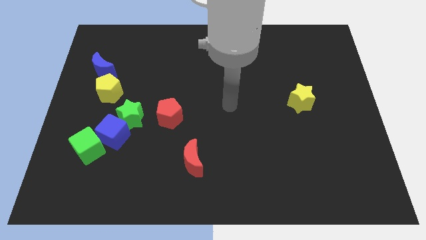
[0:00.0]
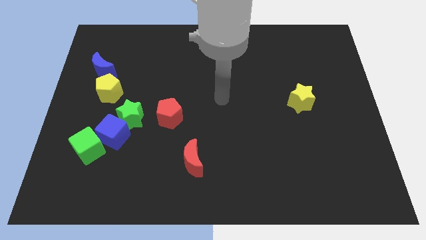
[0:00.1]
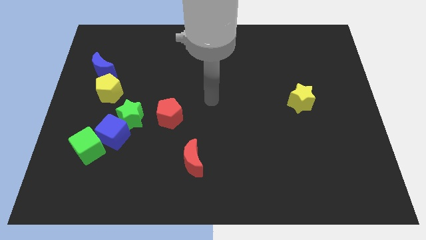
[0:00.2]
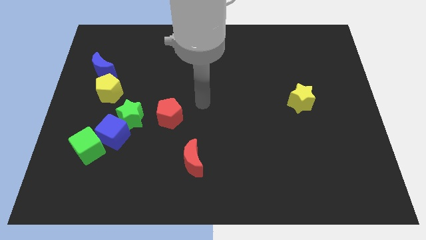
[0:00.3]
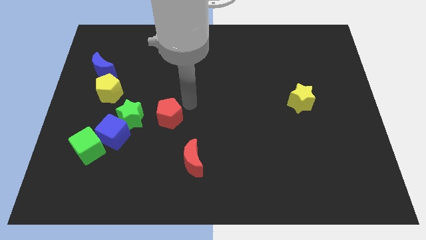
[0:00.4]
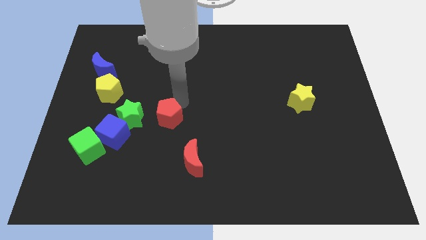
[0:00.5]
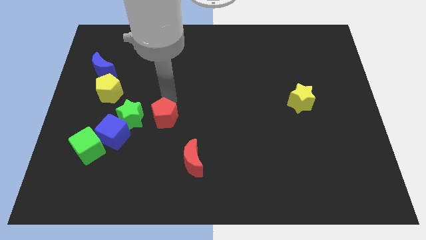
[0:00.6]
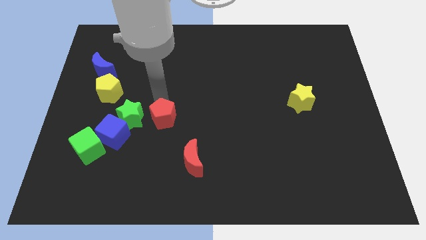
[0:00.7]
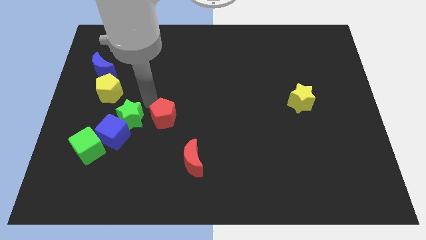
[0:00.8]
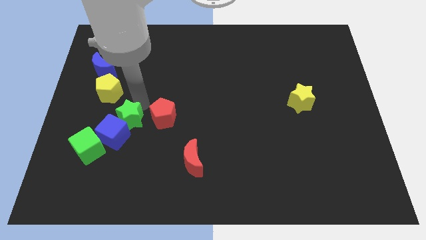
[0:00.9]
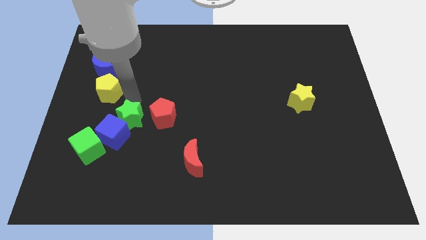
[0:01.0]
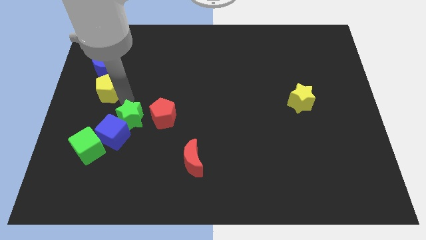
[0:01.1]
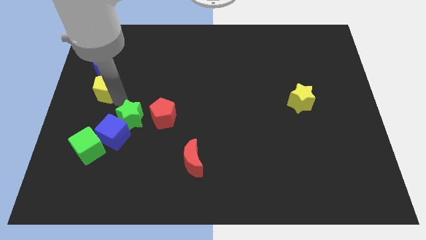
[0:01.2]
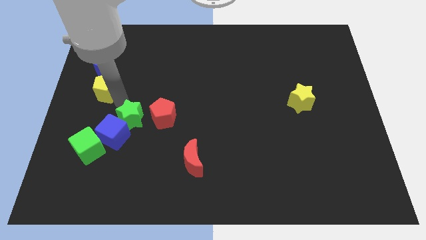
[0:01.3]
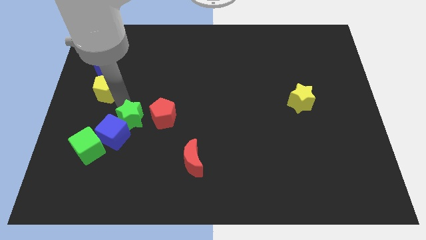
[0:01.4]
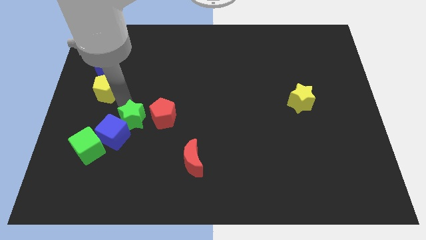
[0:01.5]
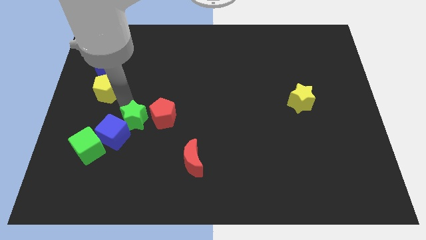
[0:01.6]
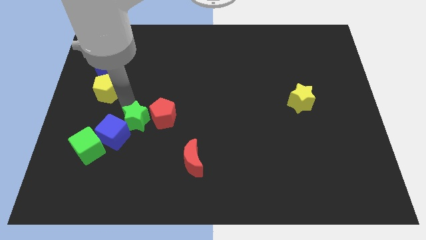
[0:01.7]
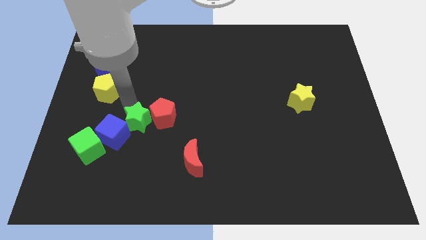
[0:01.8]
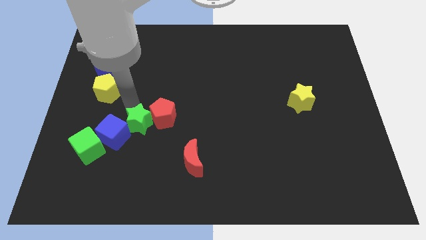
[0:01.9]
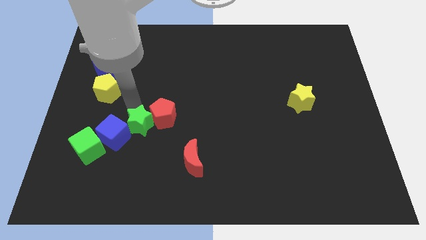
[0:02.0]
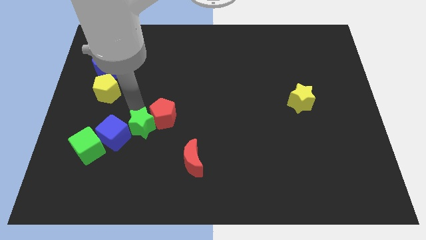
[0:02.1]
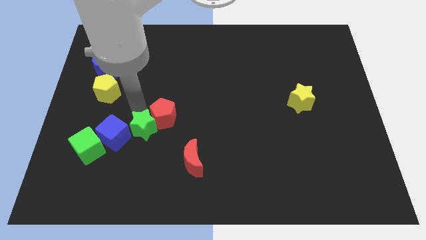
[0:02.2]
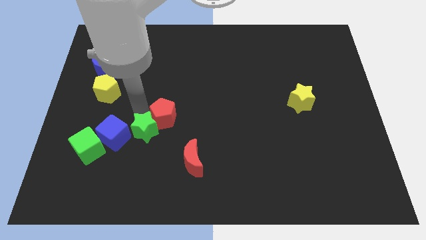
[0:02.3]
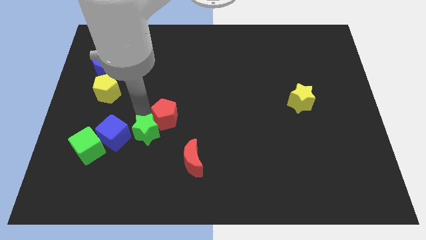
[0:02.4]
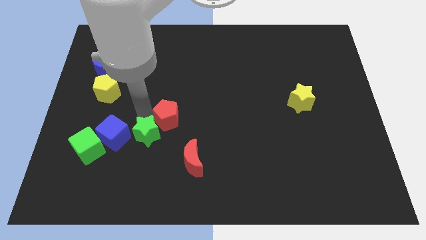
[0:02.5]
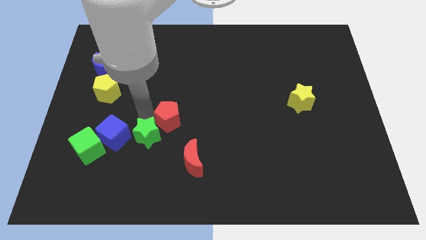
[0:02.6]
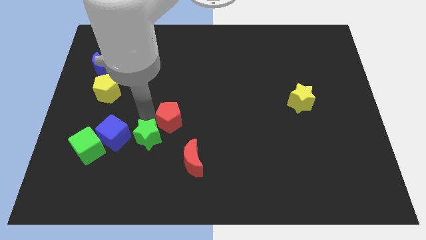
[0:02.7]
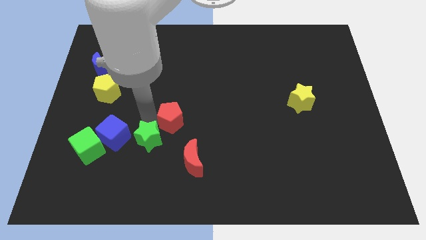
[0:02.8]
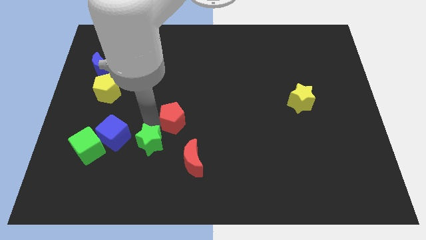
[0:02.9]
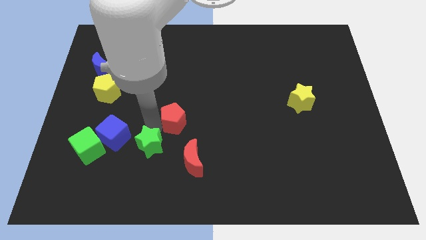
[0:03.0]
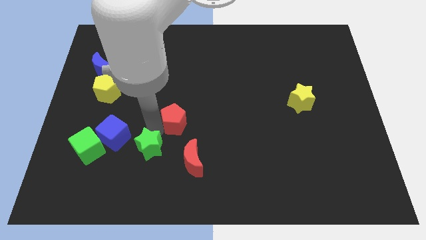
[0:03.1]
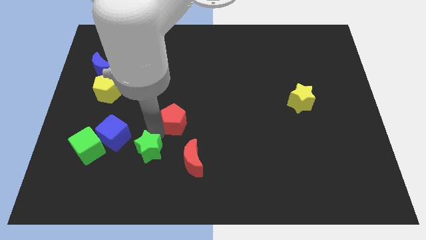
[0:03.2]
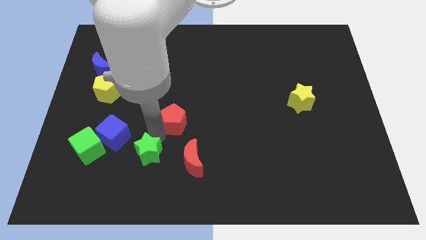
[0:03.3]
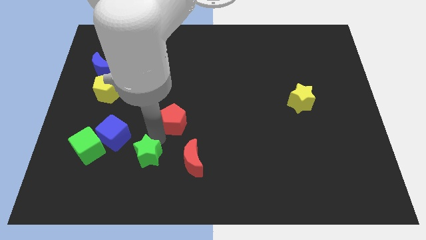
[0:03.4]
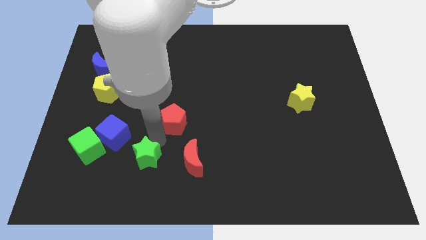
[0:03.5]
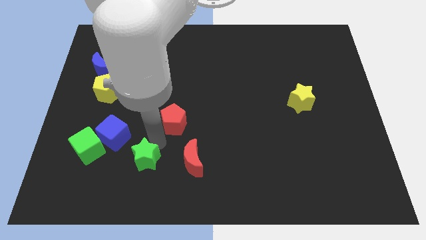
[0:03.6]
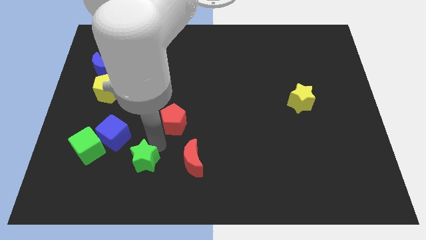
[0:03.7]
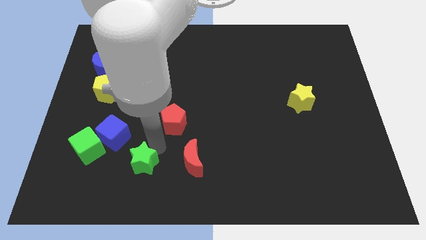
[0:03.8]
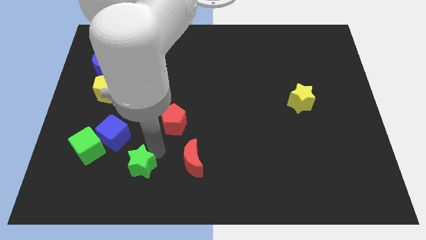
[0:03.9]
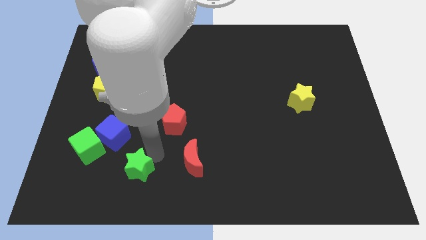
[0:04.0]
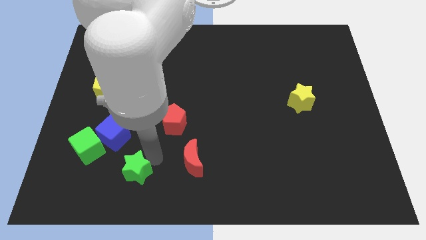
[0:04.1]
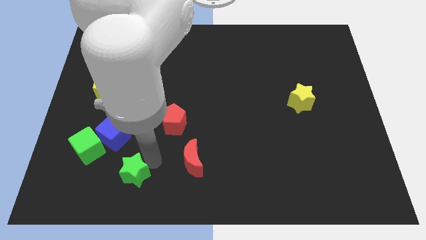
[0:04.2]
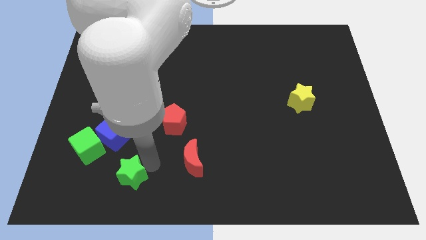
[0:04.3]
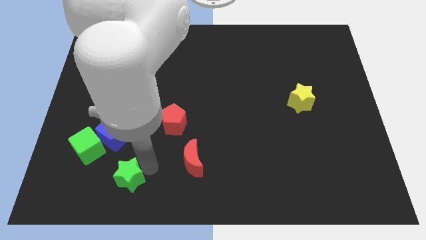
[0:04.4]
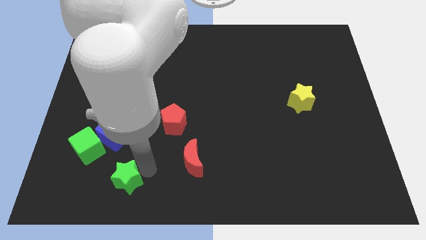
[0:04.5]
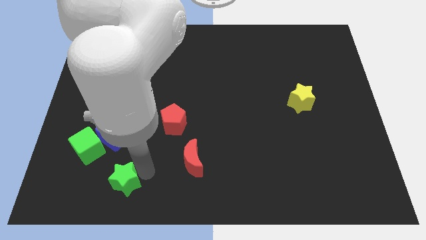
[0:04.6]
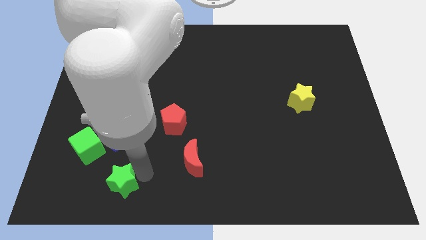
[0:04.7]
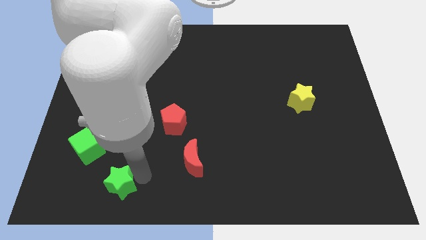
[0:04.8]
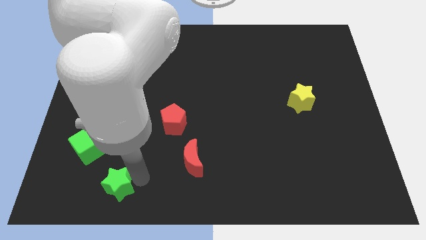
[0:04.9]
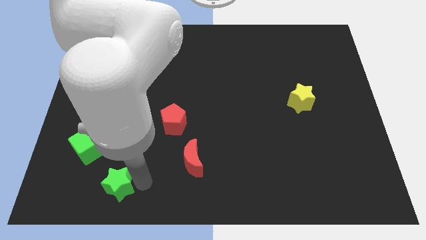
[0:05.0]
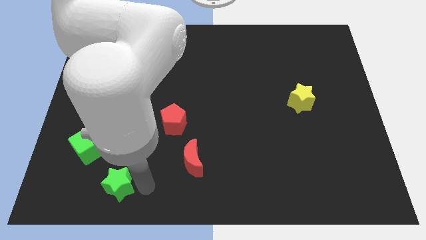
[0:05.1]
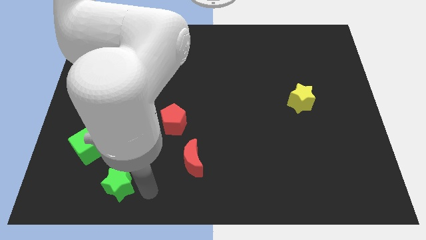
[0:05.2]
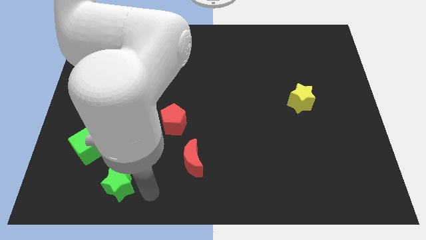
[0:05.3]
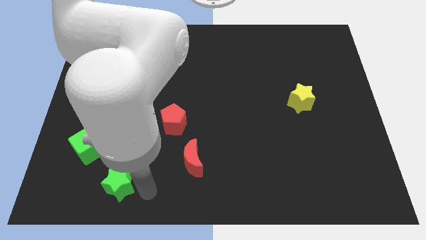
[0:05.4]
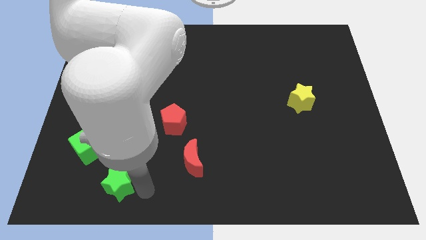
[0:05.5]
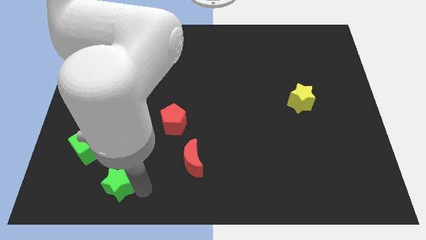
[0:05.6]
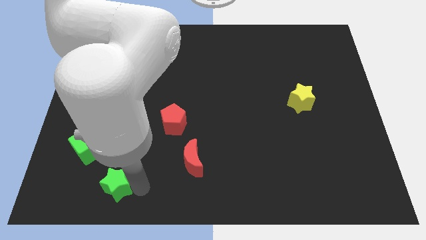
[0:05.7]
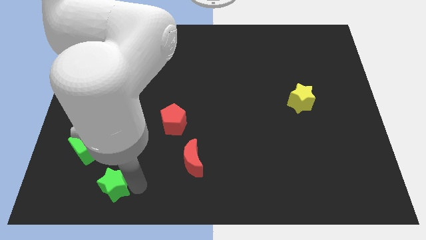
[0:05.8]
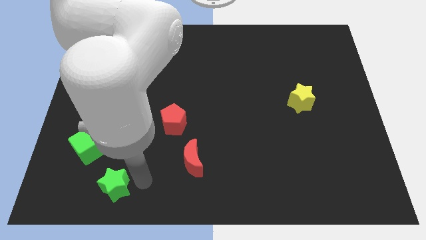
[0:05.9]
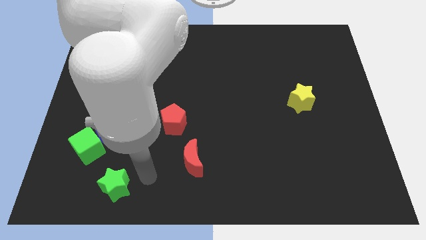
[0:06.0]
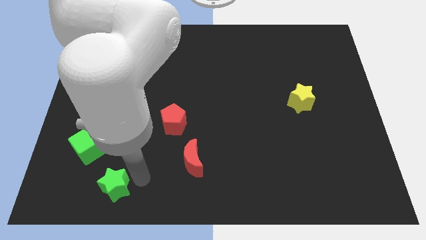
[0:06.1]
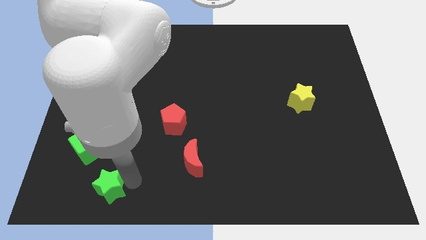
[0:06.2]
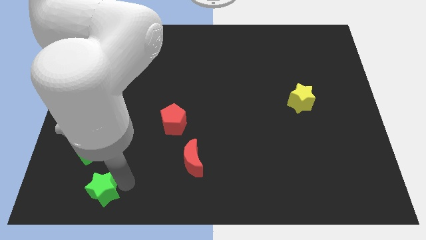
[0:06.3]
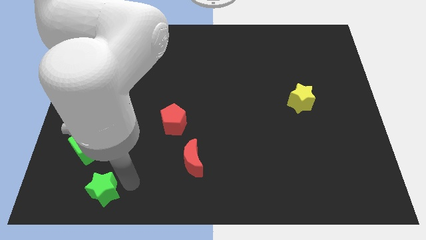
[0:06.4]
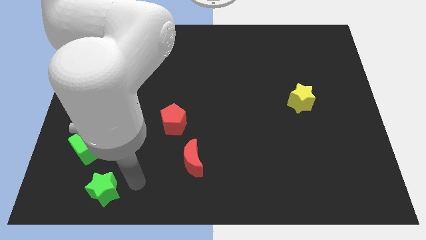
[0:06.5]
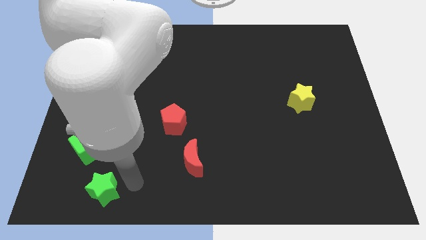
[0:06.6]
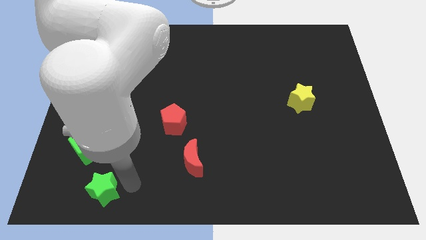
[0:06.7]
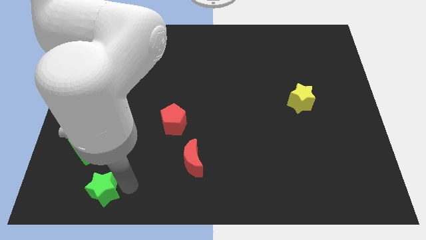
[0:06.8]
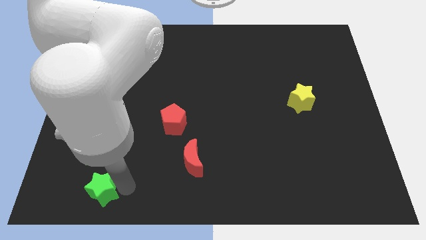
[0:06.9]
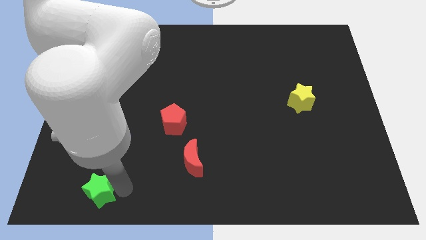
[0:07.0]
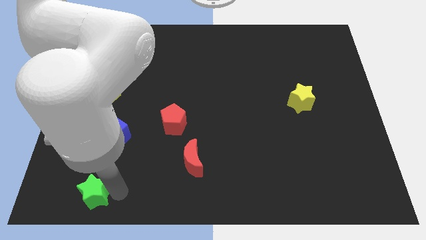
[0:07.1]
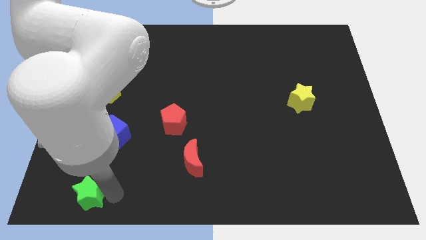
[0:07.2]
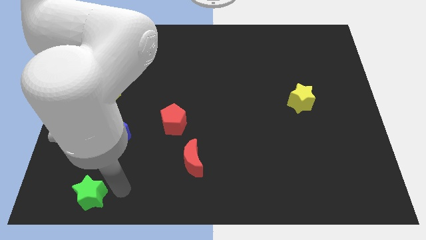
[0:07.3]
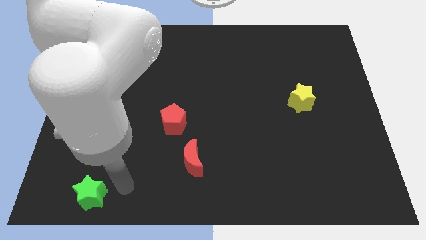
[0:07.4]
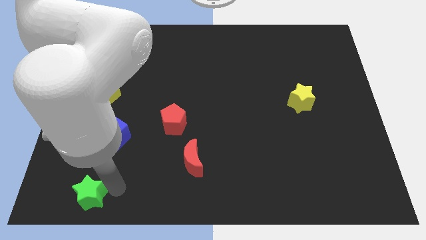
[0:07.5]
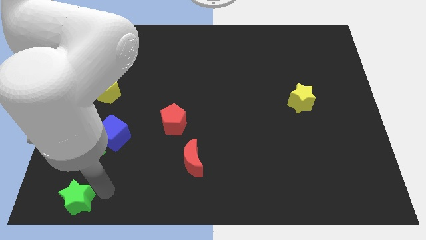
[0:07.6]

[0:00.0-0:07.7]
slide the green star to the lower left corner
